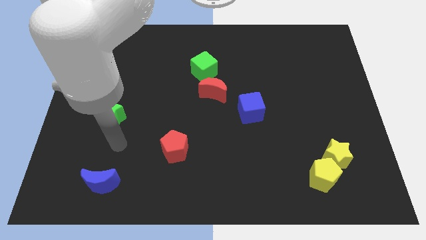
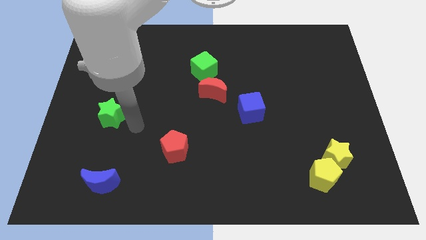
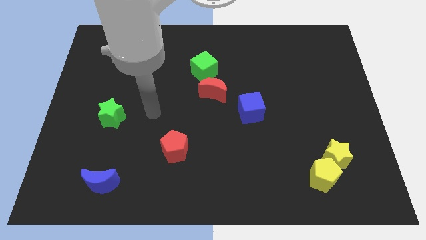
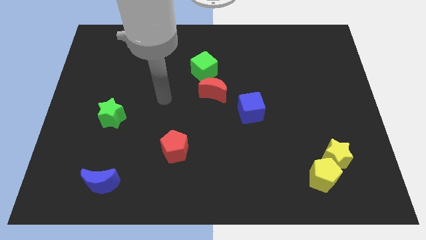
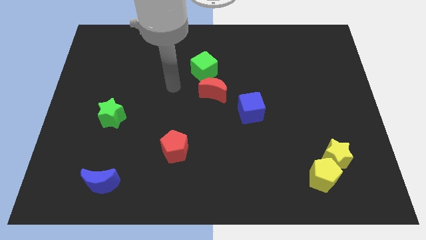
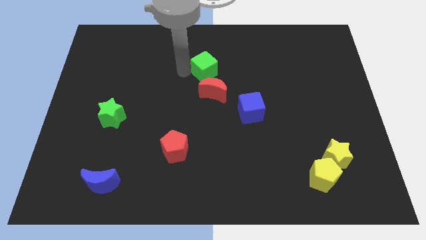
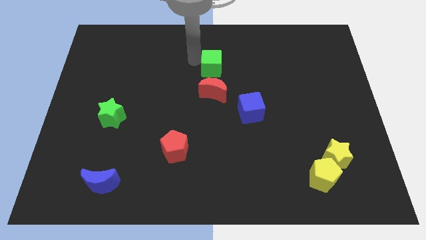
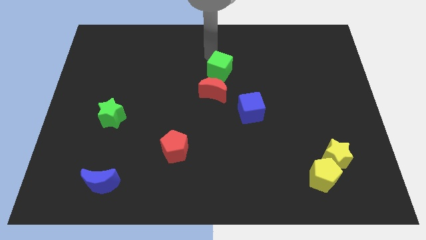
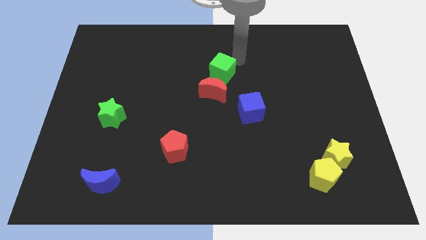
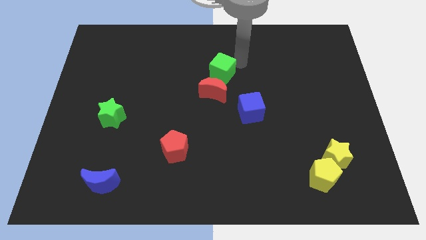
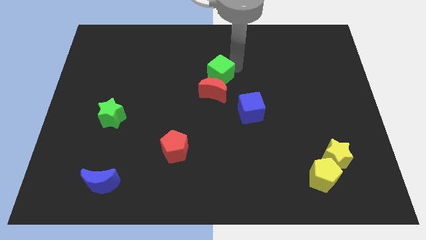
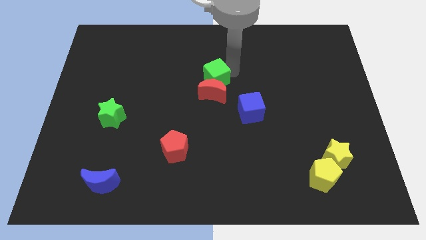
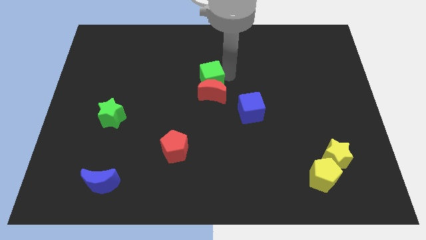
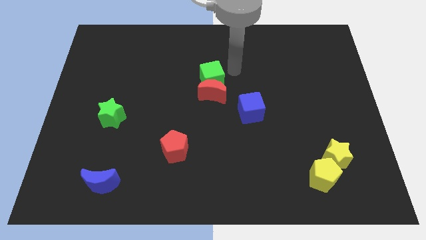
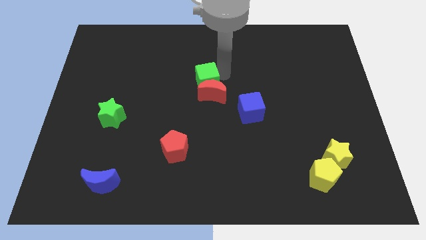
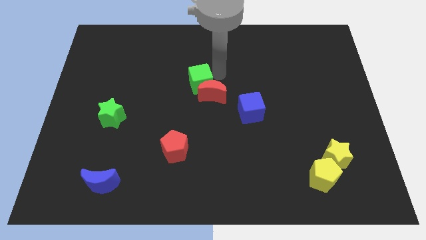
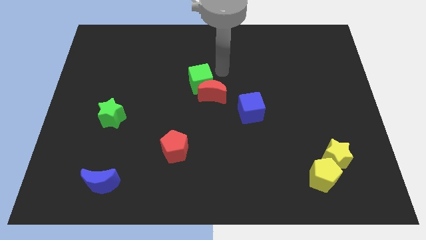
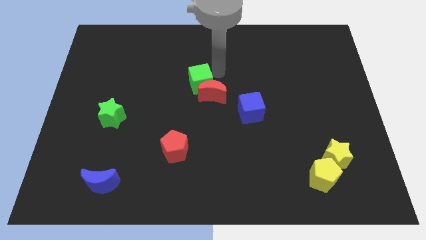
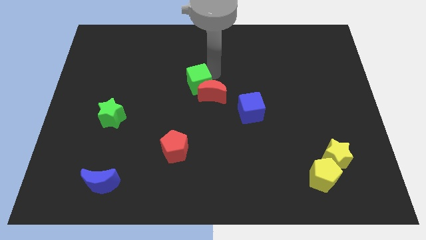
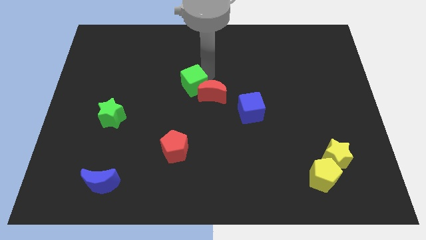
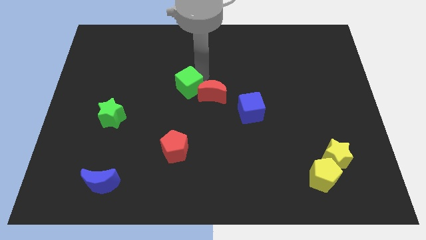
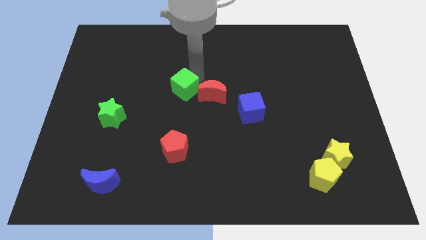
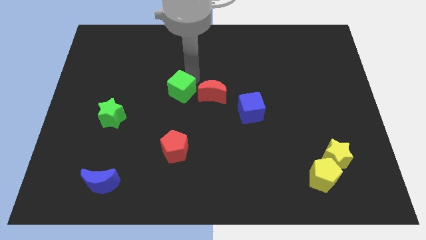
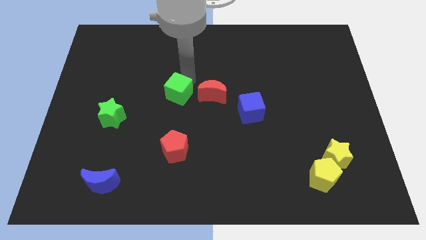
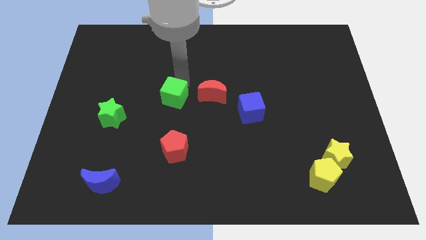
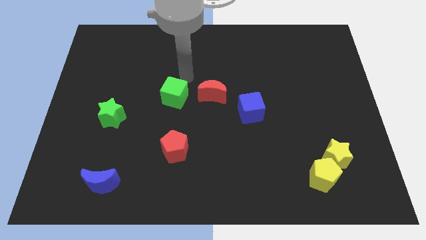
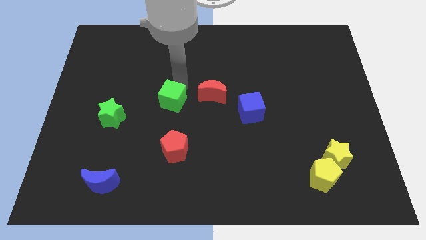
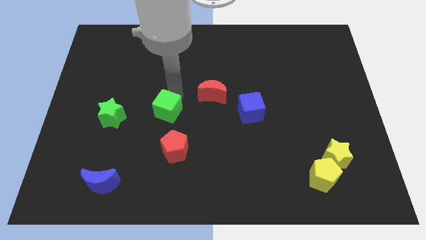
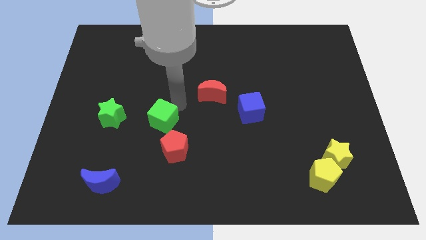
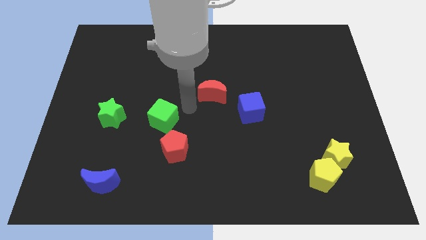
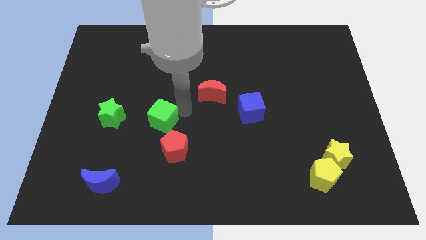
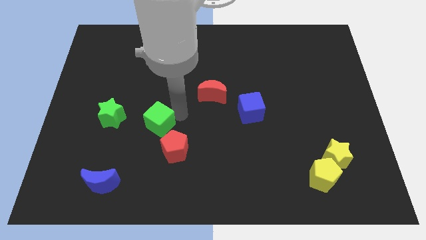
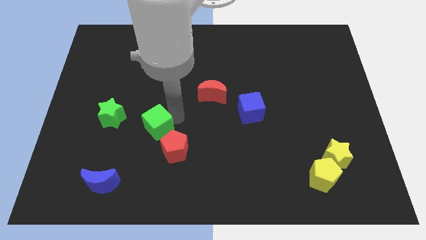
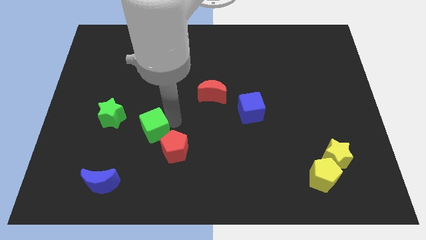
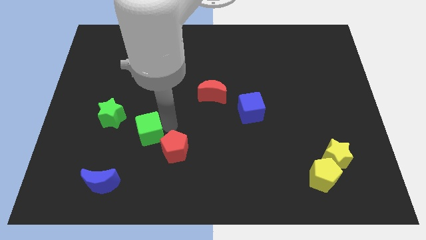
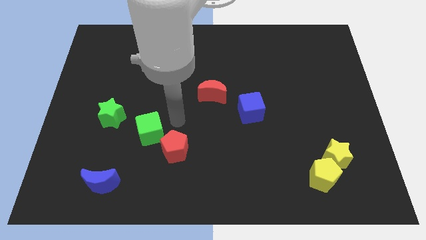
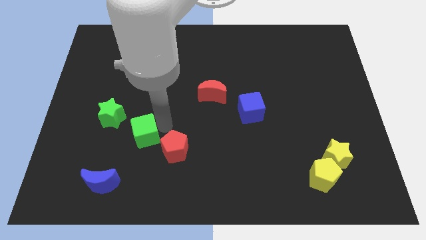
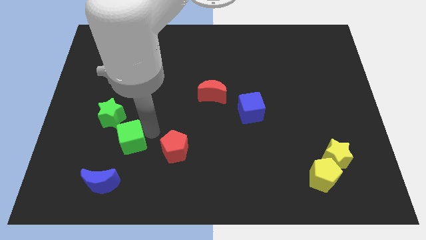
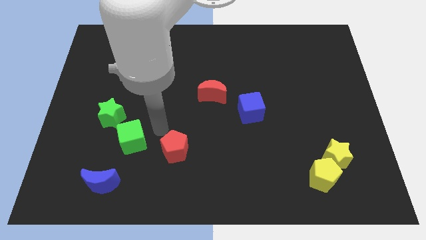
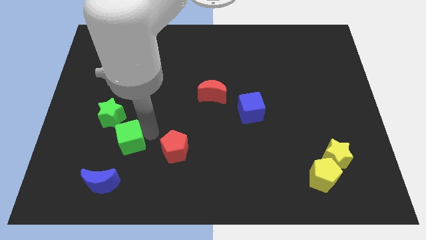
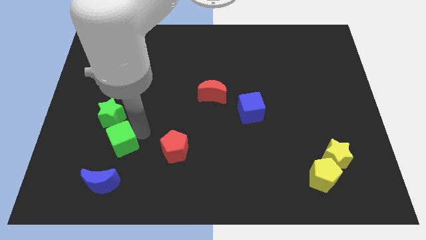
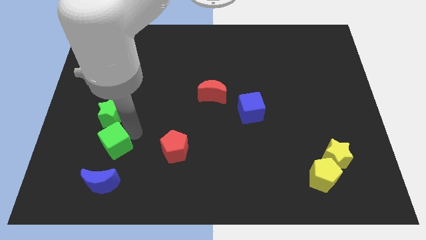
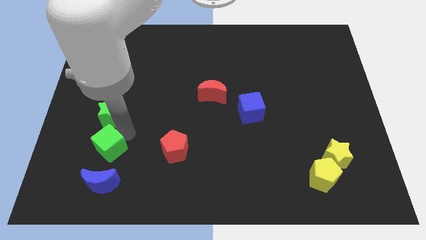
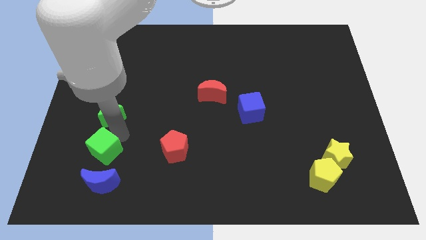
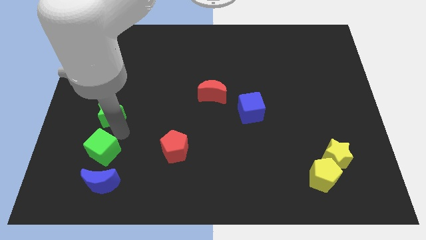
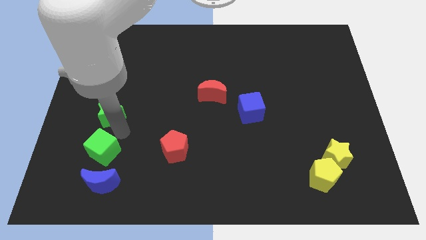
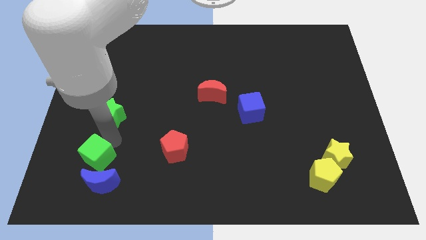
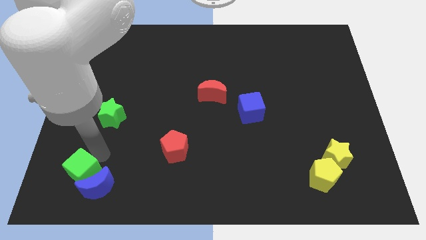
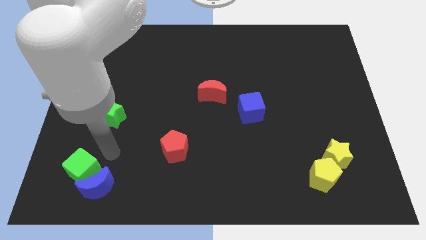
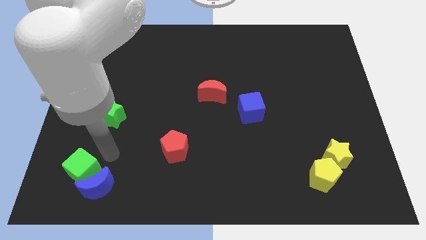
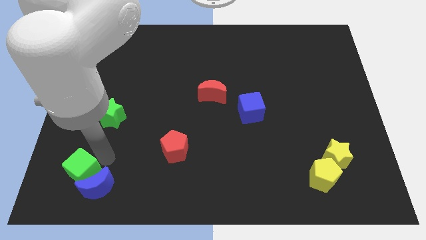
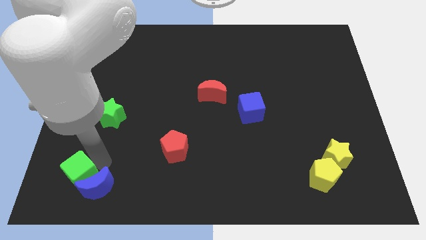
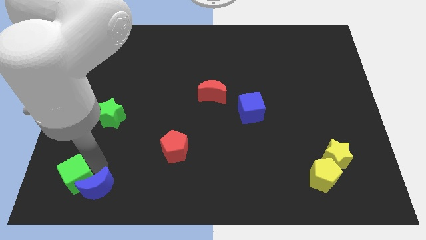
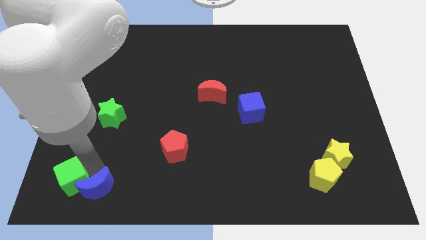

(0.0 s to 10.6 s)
put the green cube to the bottom left
